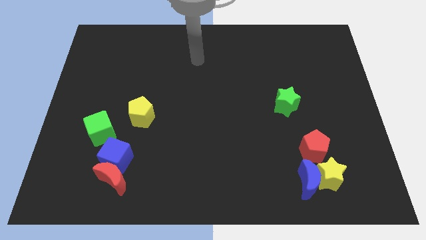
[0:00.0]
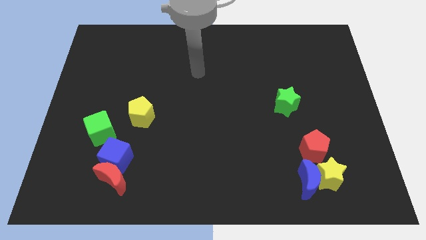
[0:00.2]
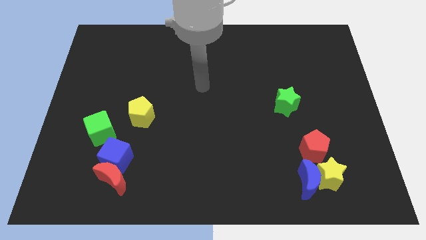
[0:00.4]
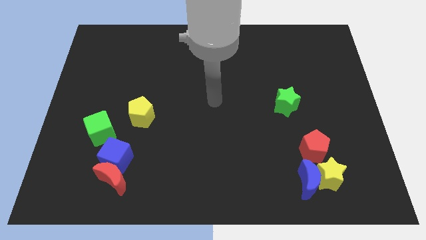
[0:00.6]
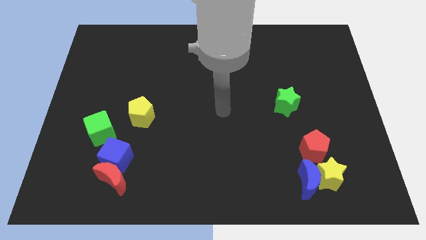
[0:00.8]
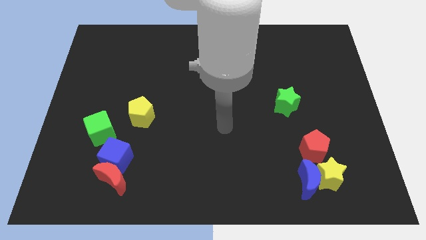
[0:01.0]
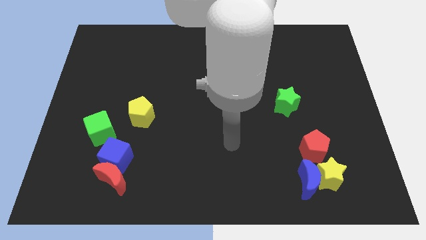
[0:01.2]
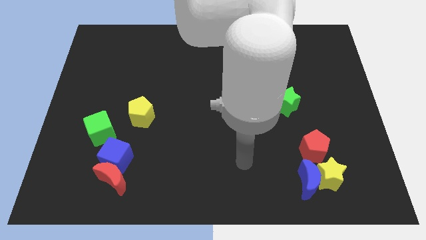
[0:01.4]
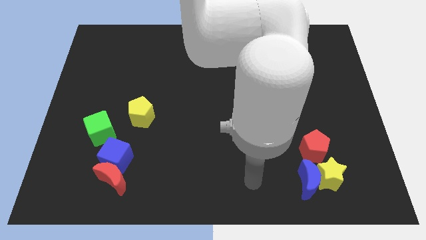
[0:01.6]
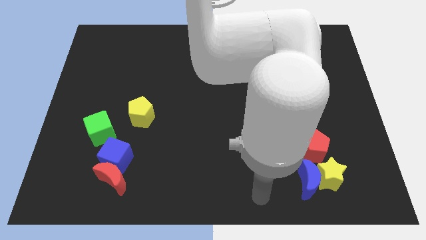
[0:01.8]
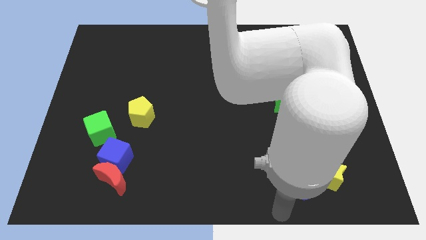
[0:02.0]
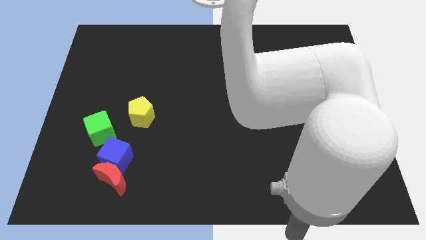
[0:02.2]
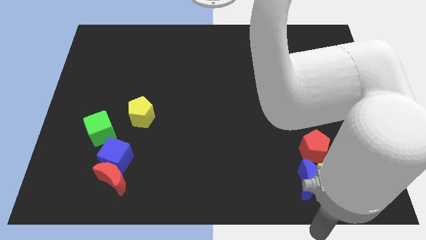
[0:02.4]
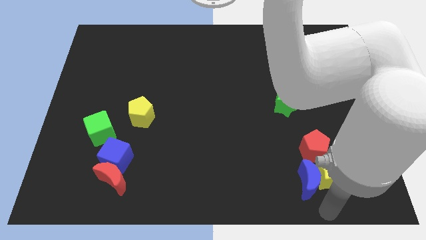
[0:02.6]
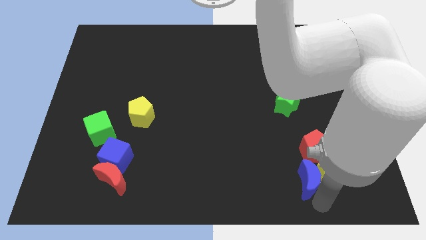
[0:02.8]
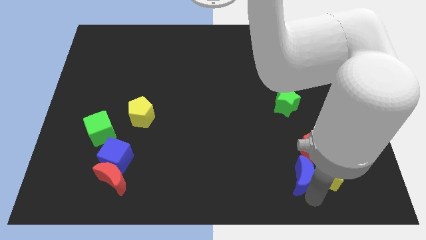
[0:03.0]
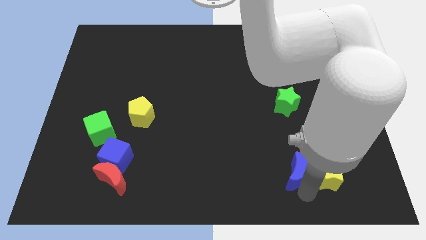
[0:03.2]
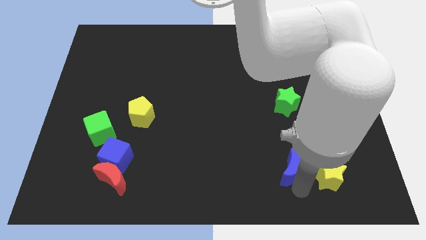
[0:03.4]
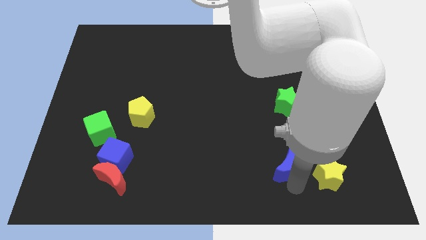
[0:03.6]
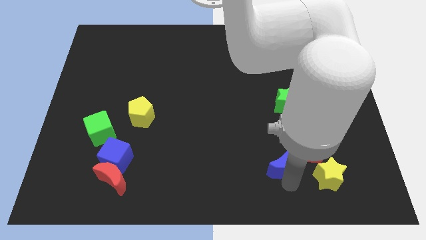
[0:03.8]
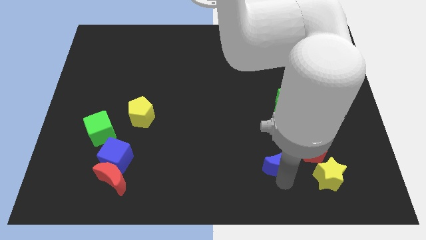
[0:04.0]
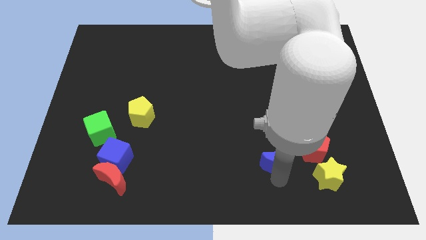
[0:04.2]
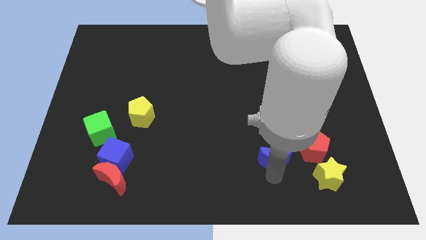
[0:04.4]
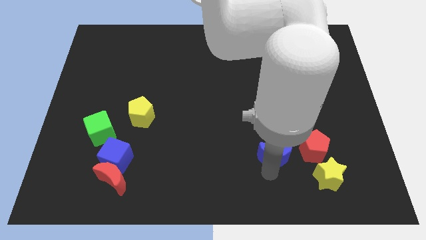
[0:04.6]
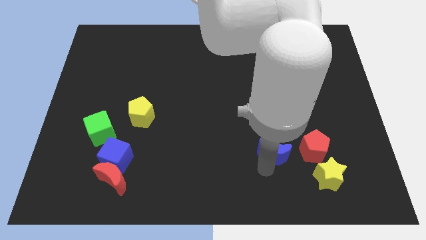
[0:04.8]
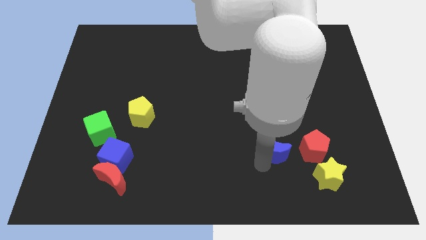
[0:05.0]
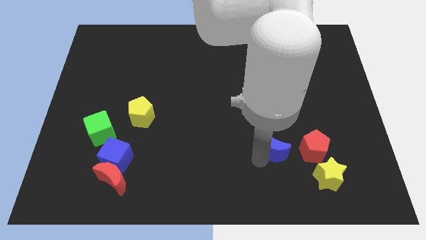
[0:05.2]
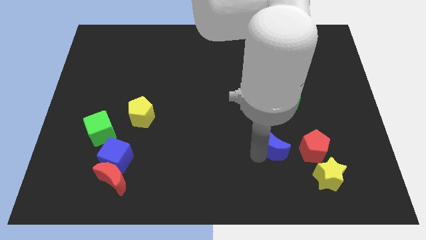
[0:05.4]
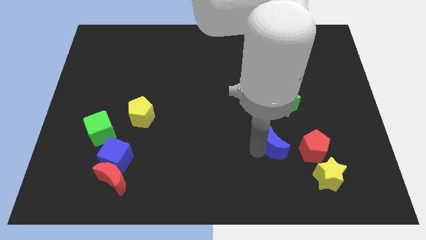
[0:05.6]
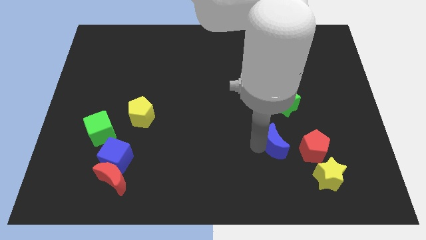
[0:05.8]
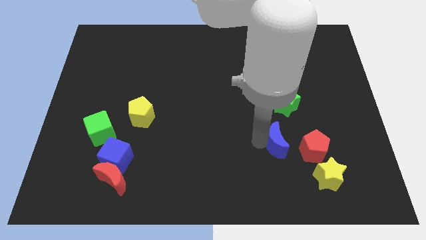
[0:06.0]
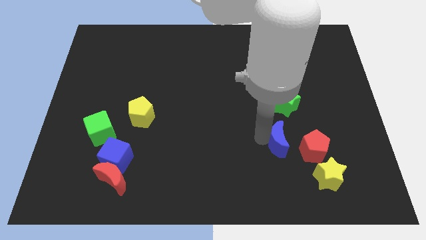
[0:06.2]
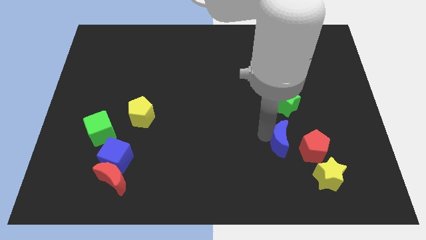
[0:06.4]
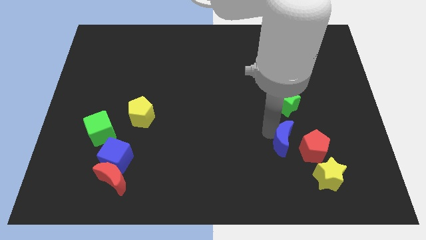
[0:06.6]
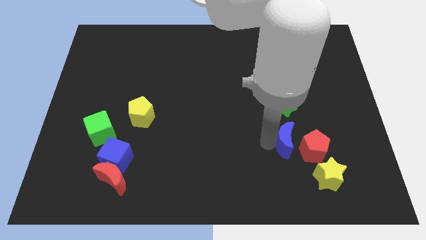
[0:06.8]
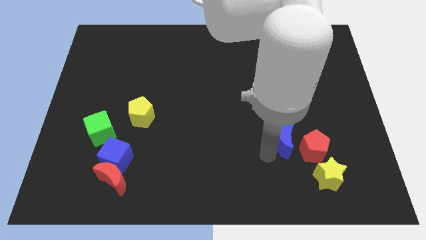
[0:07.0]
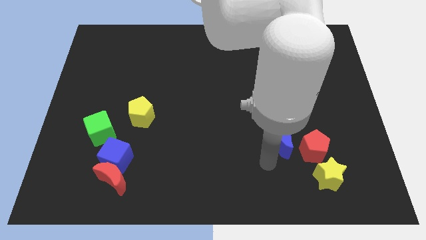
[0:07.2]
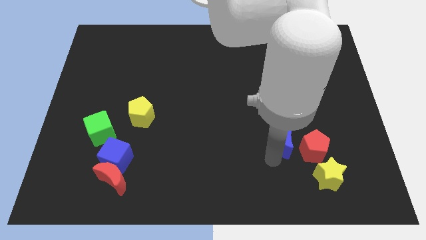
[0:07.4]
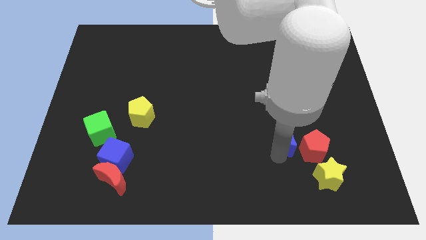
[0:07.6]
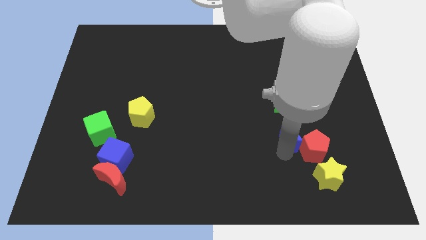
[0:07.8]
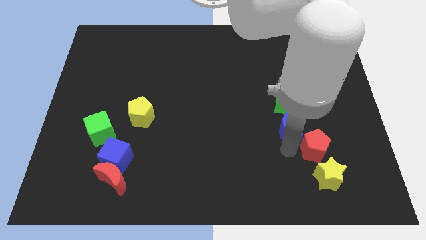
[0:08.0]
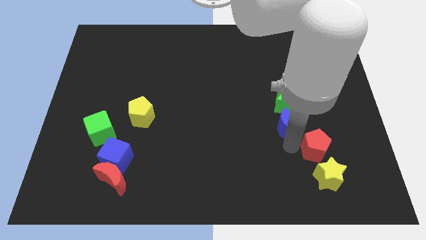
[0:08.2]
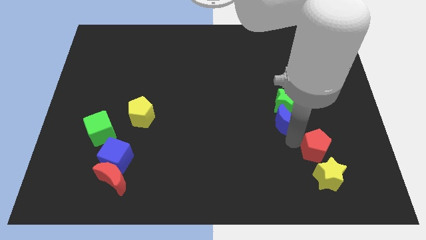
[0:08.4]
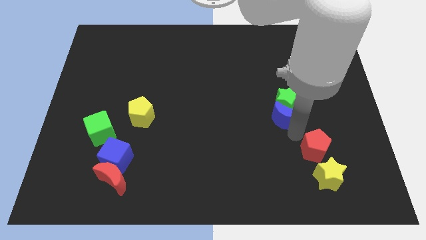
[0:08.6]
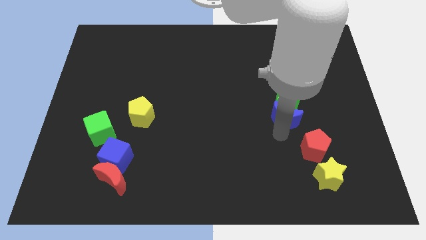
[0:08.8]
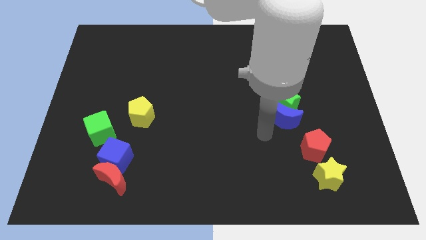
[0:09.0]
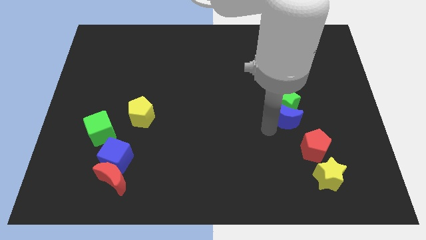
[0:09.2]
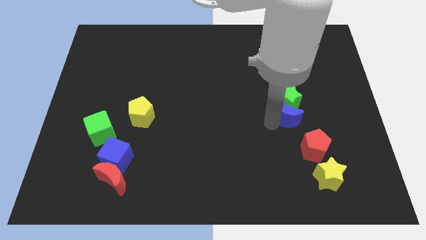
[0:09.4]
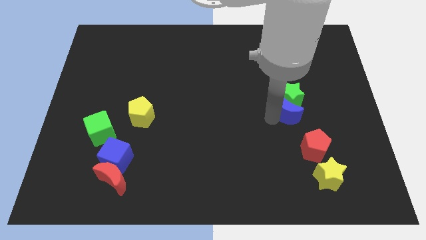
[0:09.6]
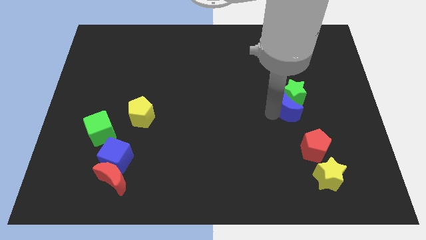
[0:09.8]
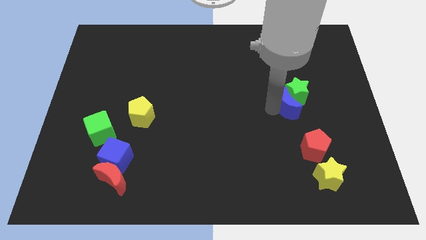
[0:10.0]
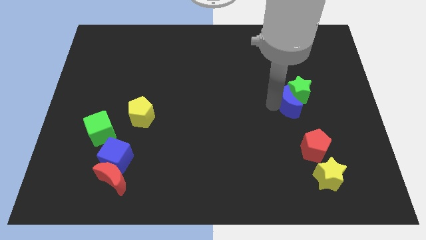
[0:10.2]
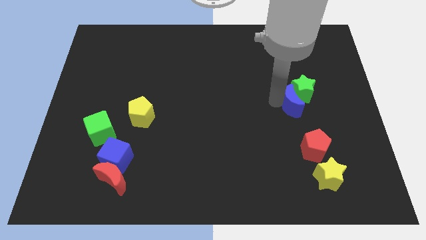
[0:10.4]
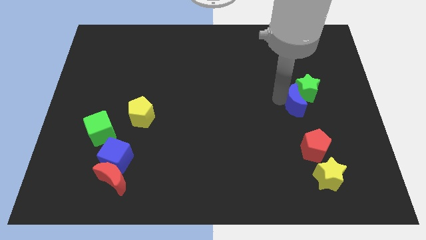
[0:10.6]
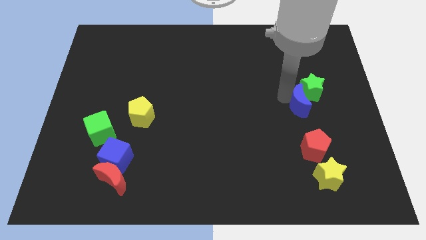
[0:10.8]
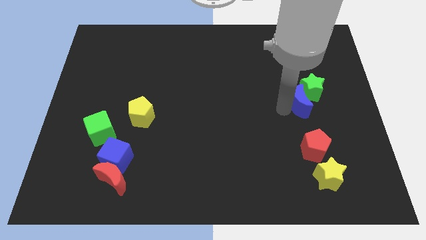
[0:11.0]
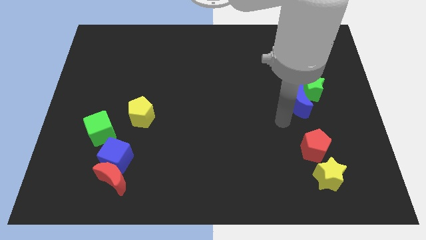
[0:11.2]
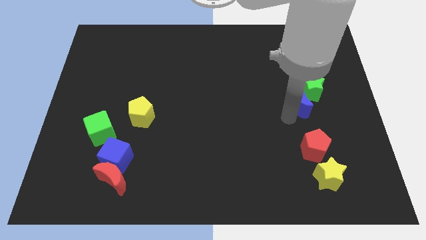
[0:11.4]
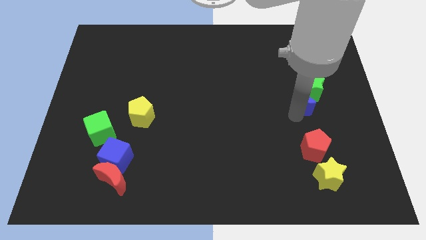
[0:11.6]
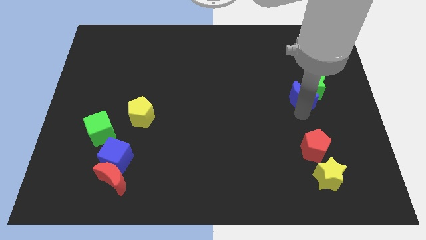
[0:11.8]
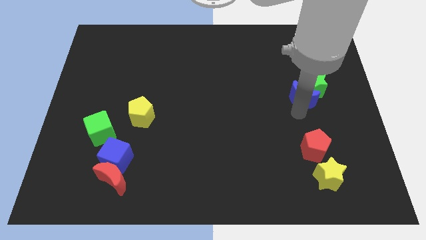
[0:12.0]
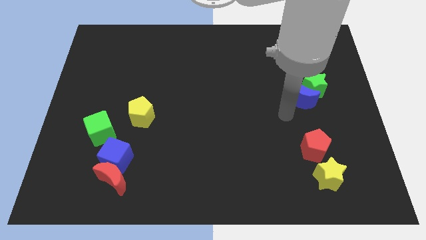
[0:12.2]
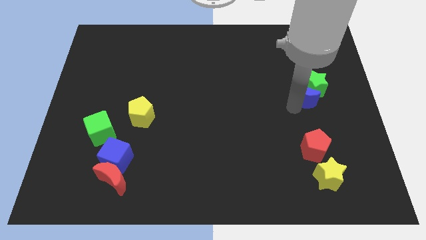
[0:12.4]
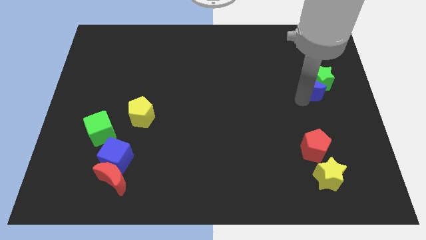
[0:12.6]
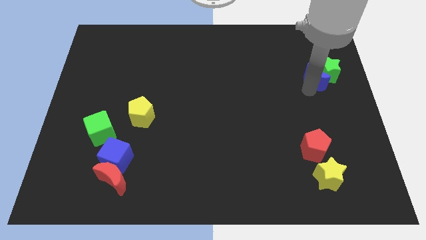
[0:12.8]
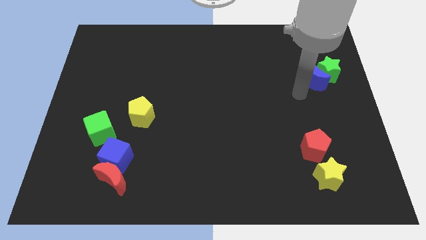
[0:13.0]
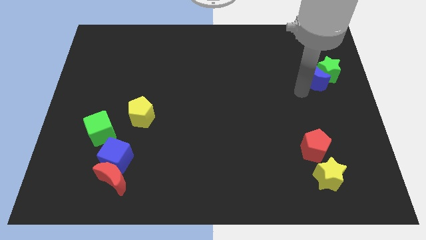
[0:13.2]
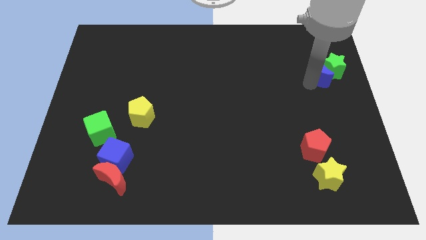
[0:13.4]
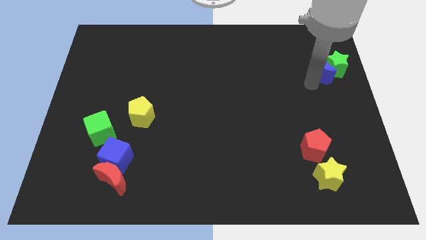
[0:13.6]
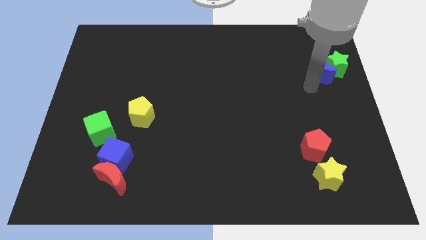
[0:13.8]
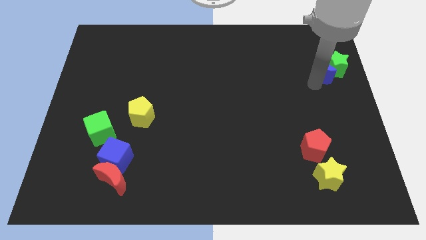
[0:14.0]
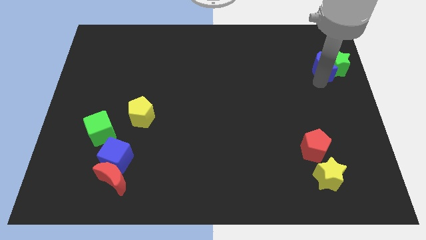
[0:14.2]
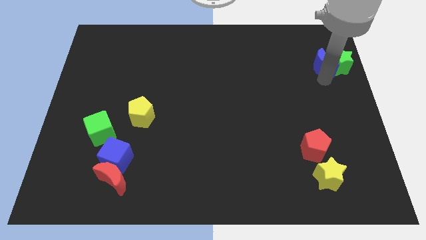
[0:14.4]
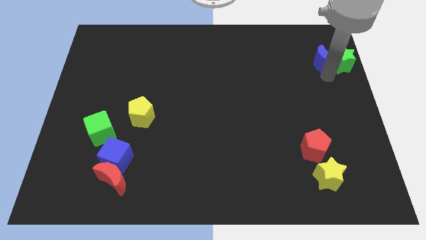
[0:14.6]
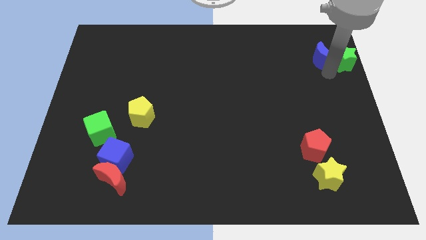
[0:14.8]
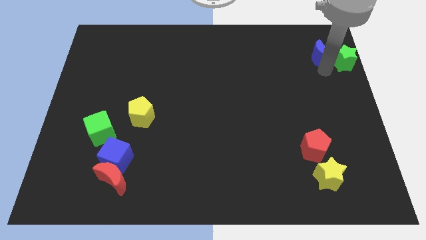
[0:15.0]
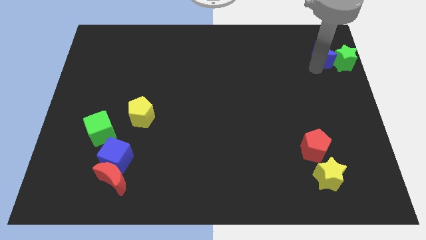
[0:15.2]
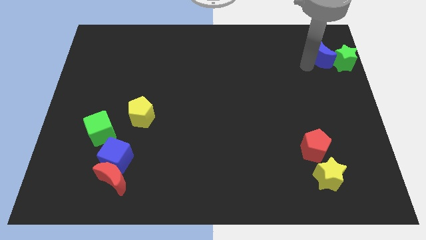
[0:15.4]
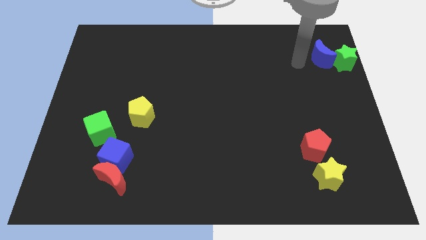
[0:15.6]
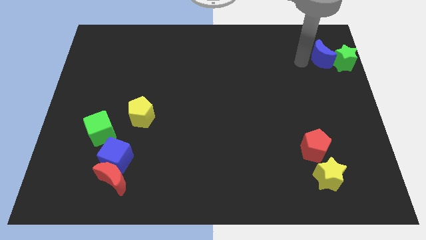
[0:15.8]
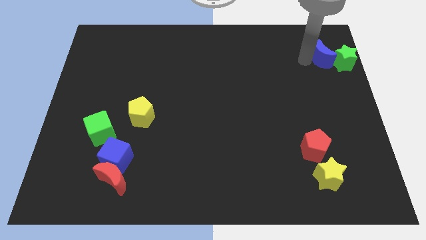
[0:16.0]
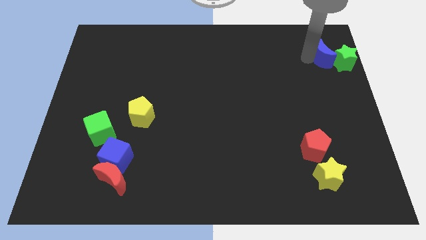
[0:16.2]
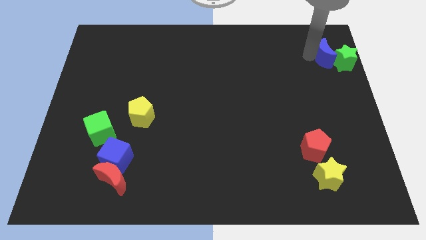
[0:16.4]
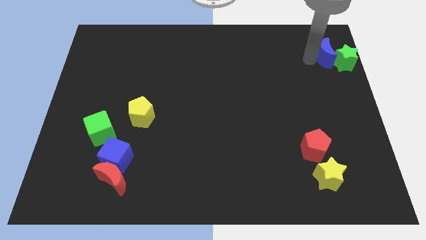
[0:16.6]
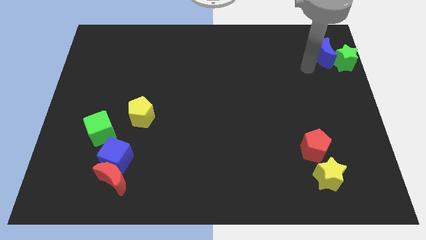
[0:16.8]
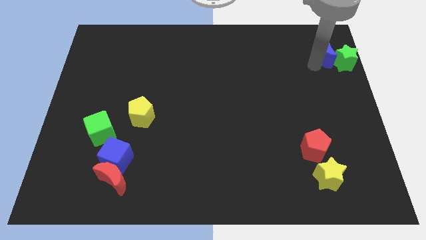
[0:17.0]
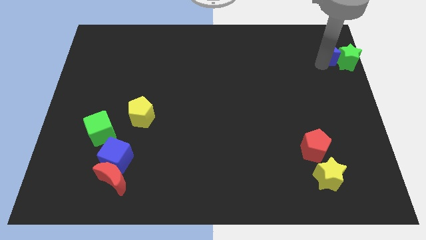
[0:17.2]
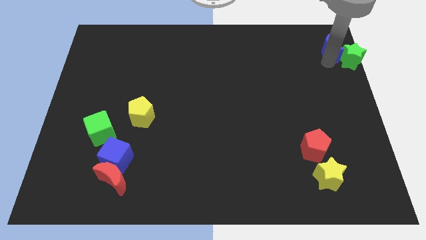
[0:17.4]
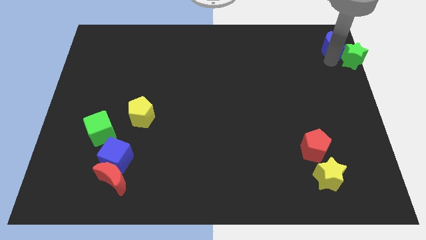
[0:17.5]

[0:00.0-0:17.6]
put the blue moon to the top right of the board
